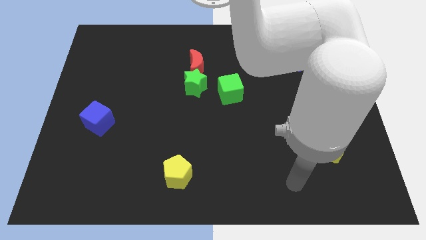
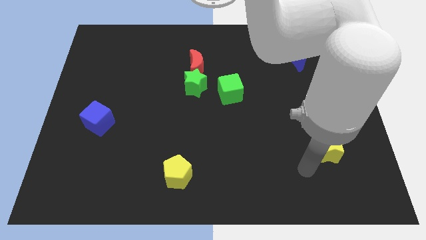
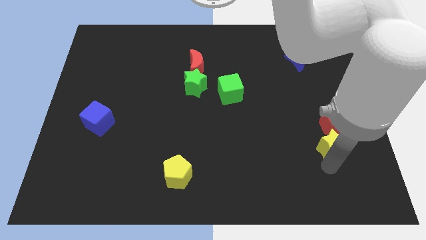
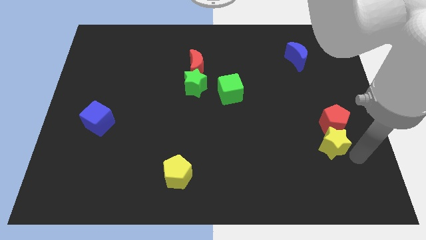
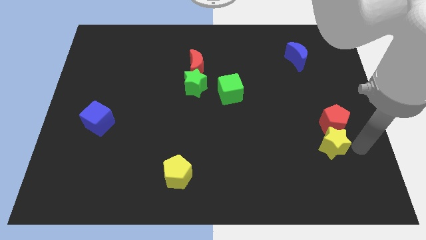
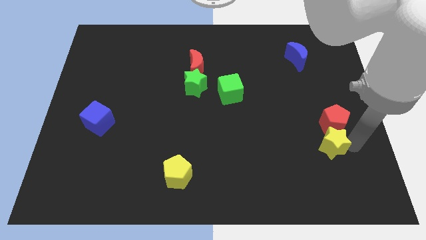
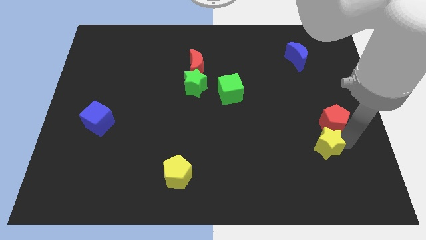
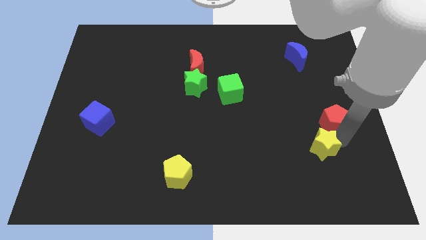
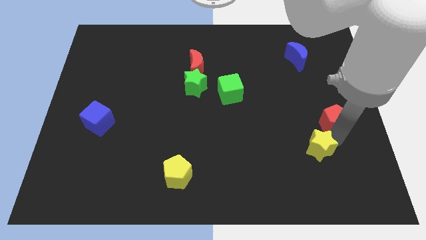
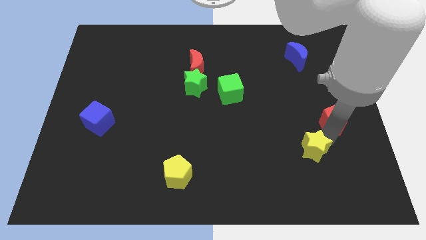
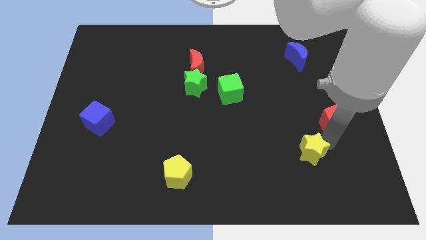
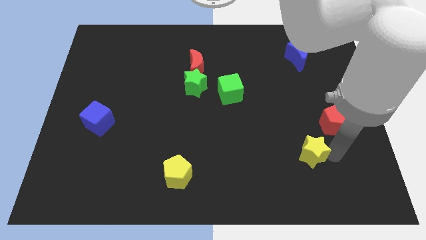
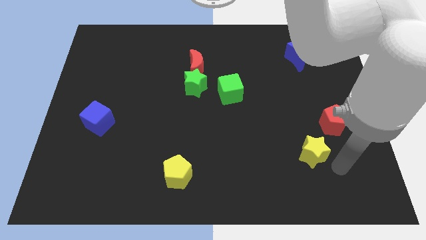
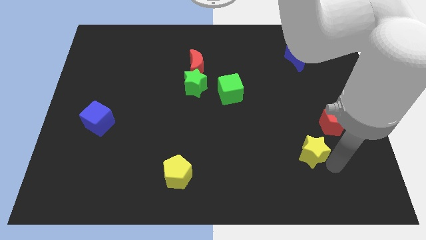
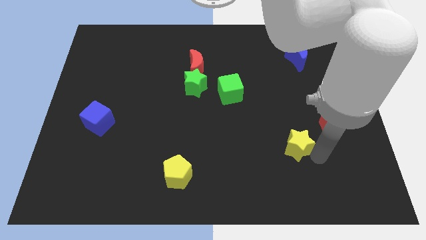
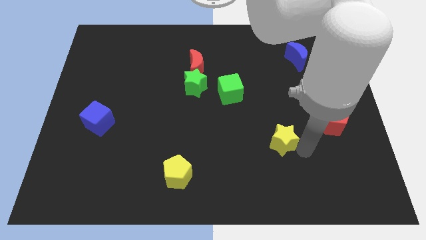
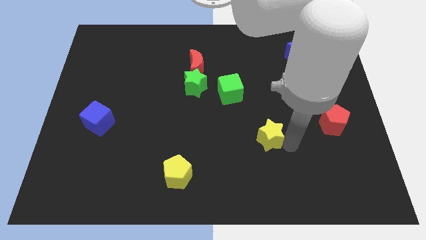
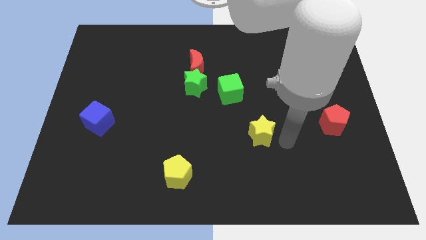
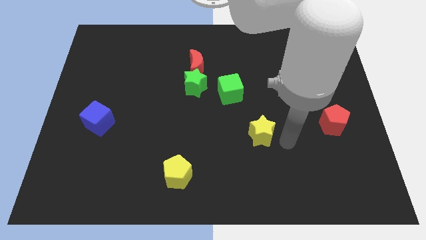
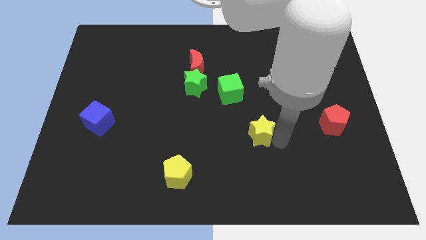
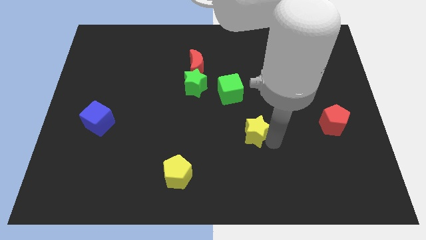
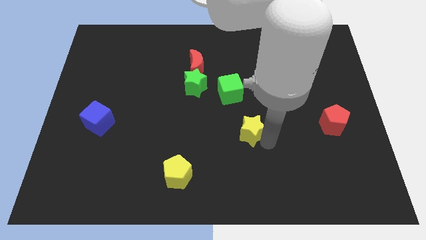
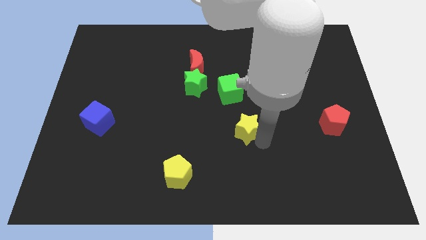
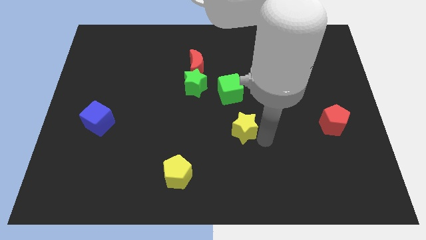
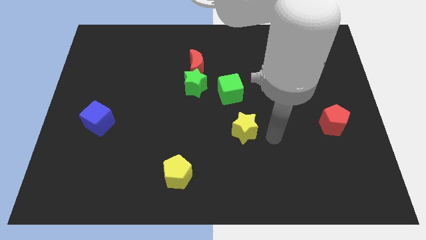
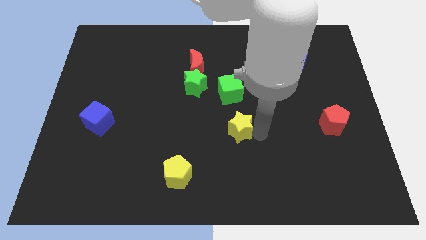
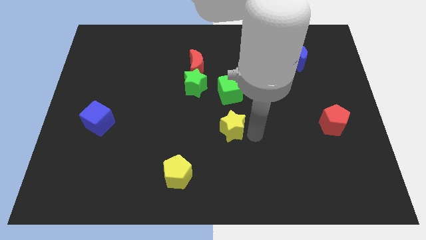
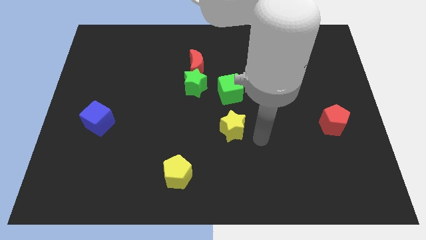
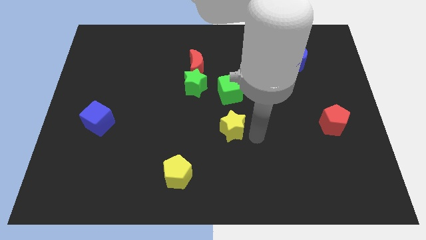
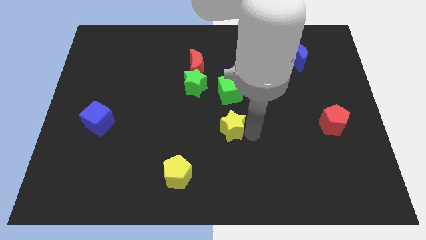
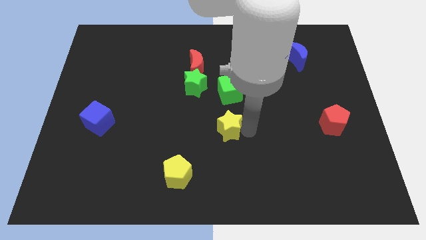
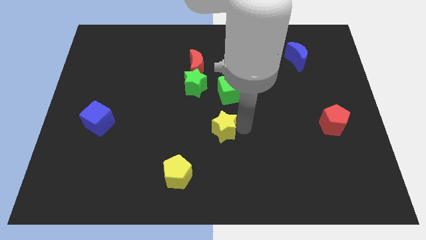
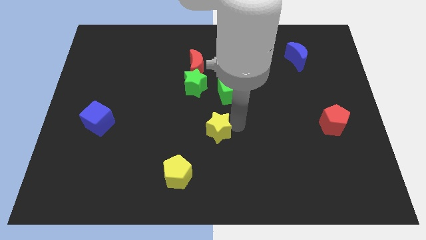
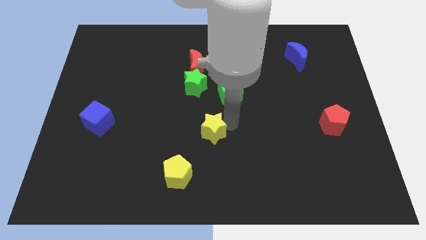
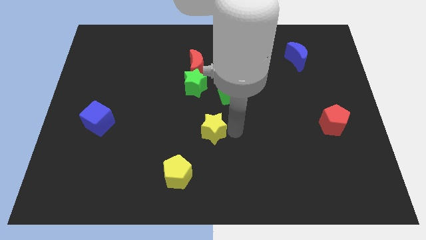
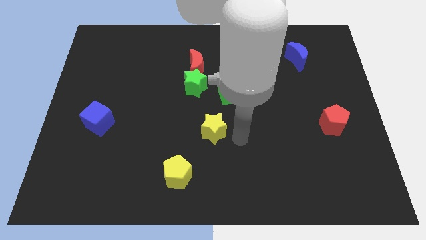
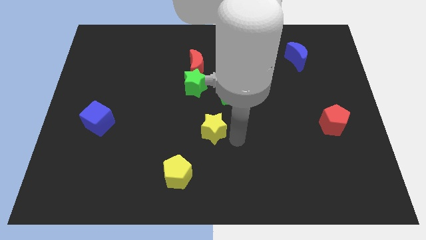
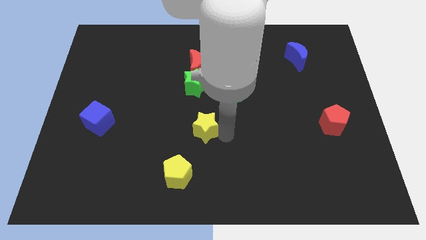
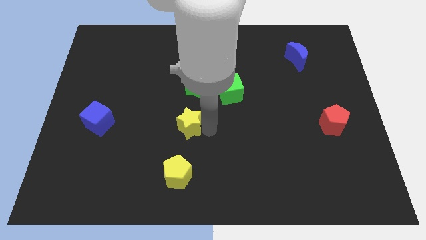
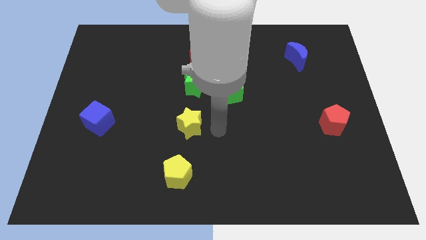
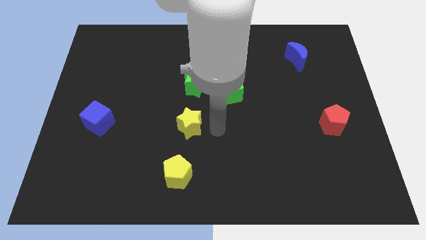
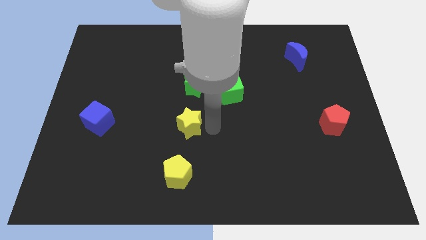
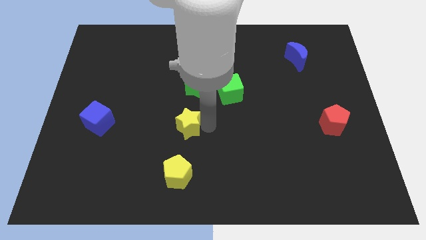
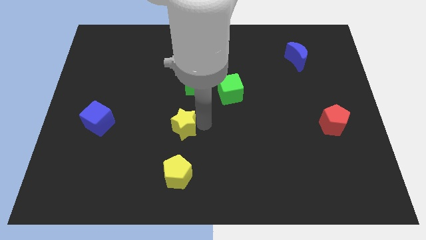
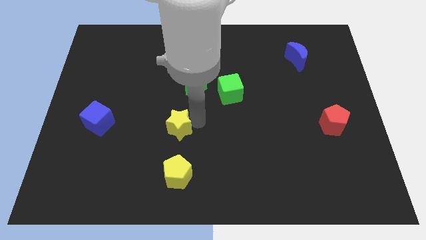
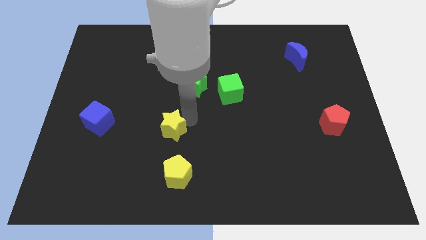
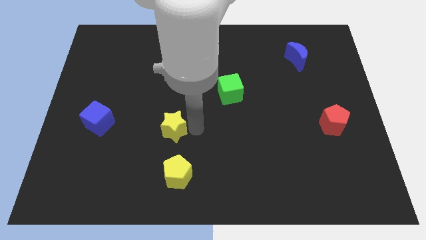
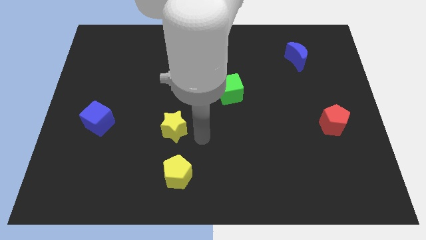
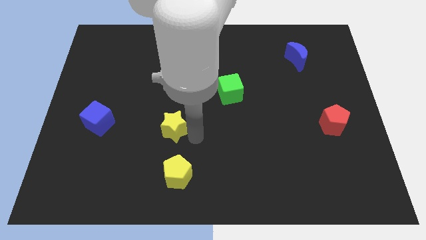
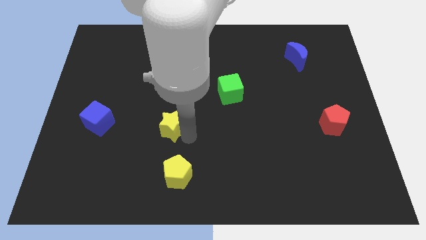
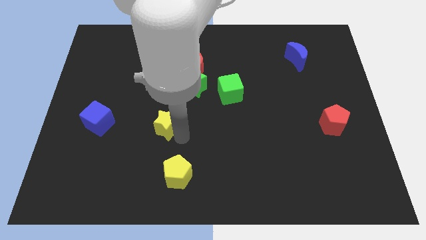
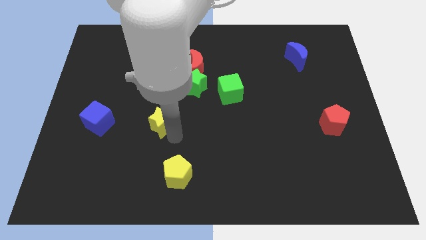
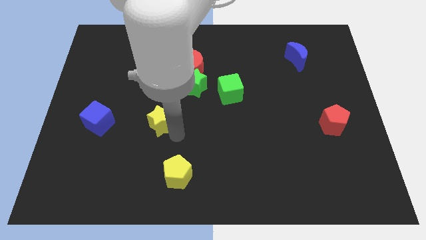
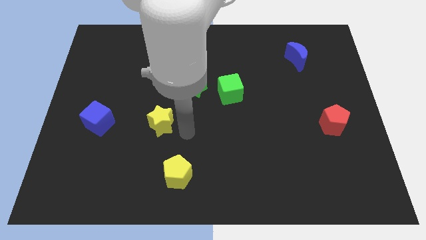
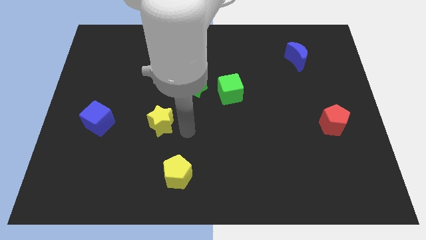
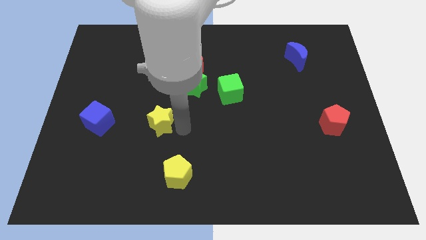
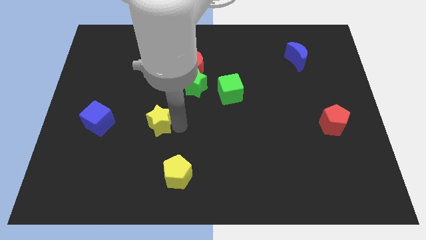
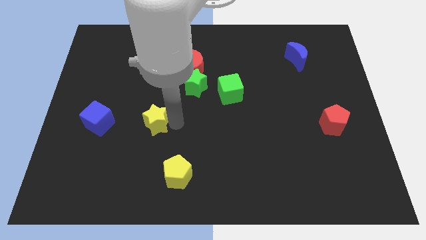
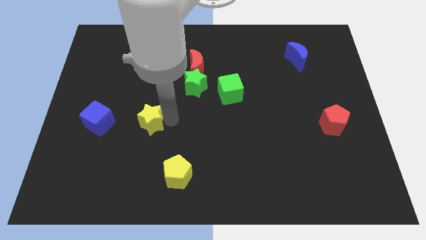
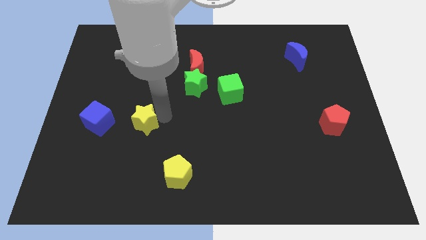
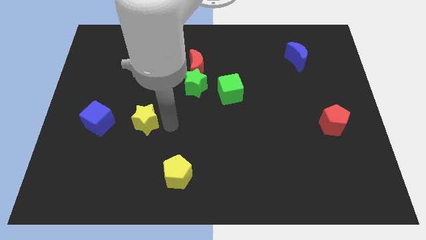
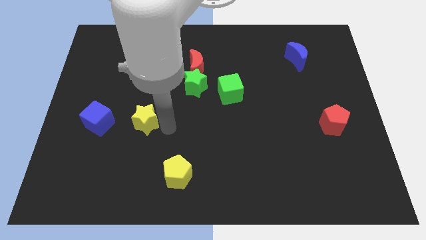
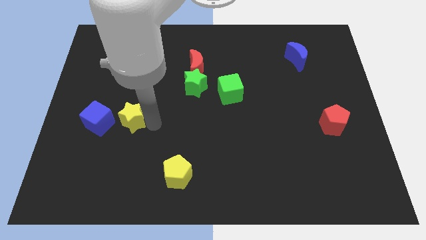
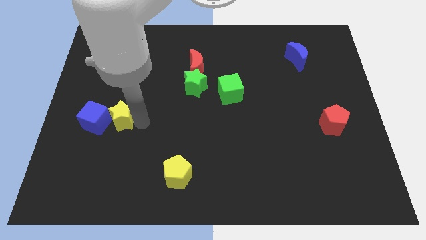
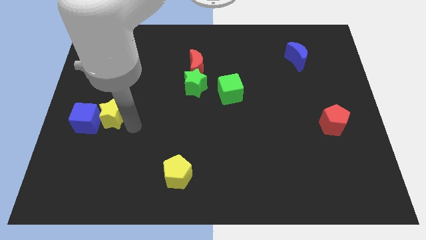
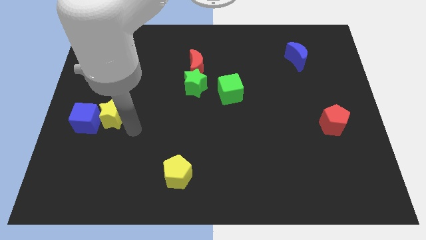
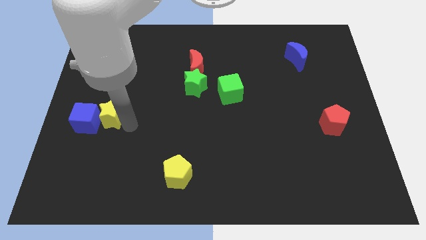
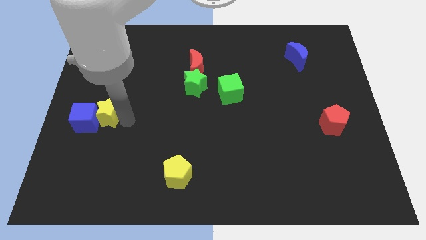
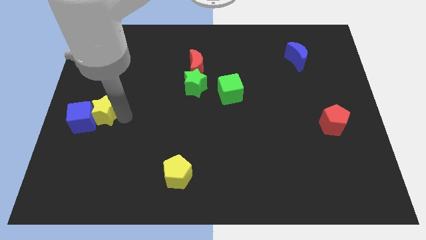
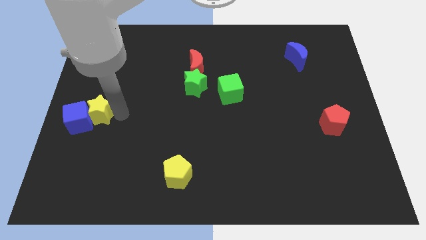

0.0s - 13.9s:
slide the yellow star to the left side
